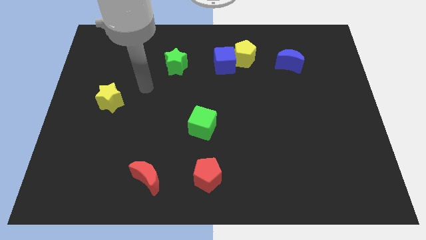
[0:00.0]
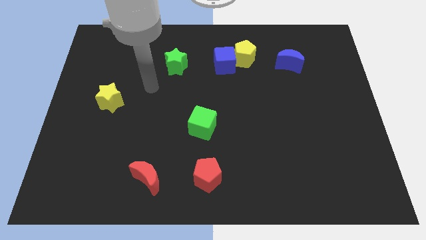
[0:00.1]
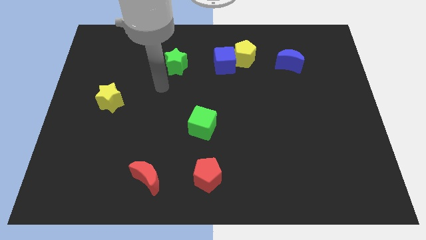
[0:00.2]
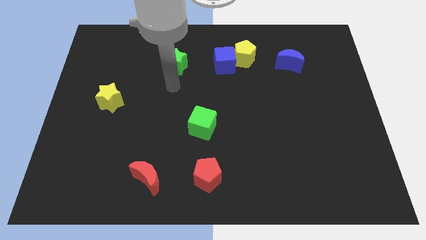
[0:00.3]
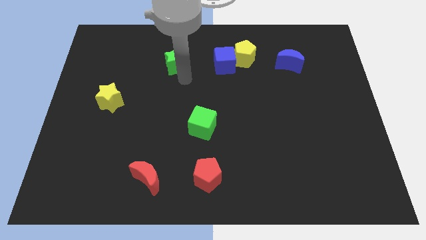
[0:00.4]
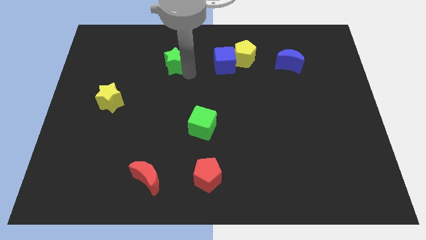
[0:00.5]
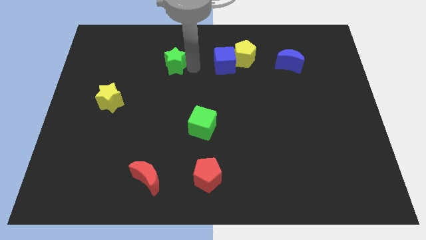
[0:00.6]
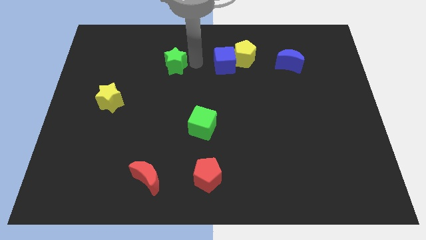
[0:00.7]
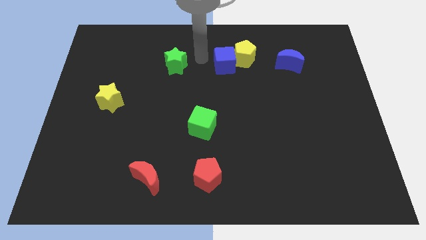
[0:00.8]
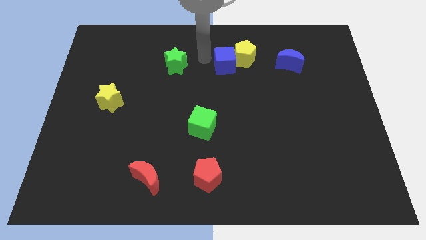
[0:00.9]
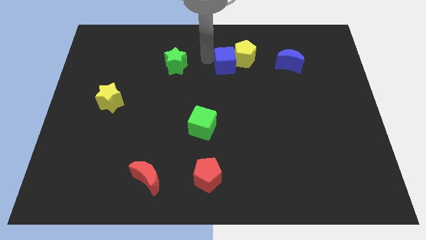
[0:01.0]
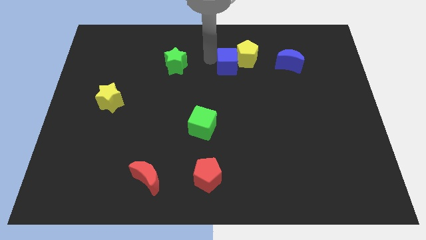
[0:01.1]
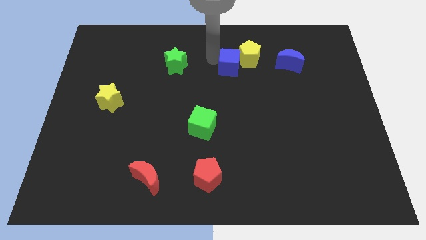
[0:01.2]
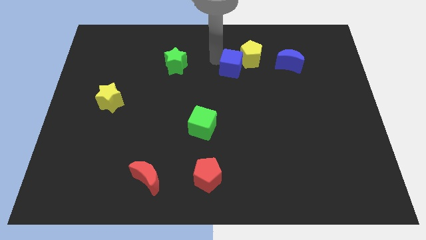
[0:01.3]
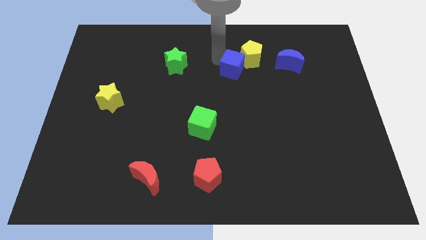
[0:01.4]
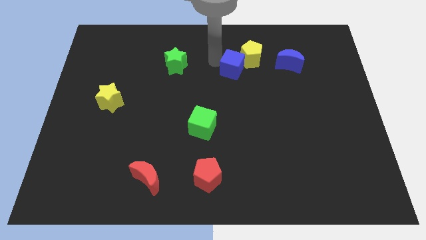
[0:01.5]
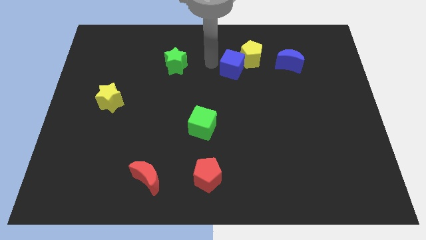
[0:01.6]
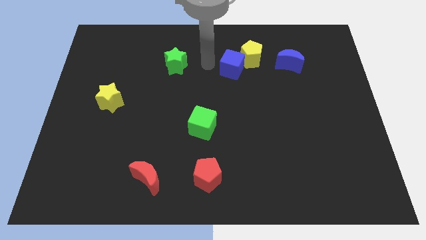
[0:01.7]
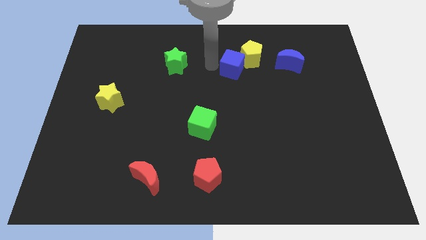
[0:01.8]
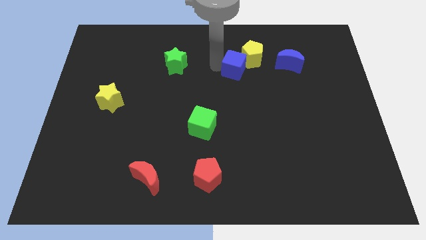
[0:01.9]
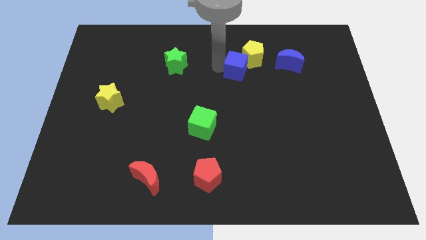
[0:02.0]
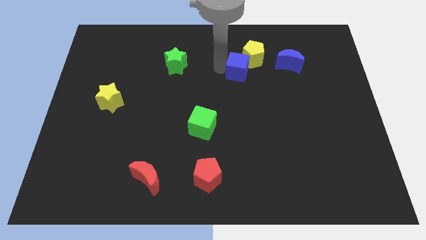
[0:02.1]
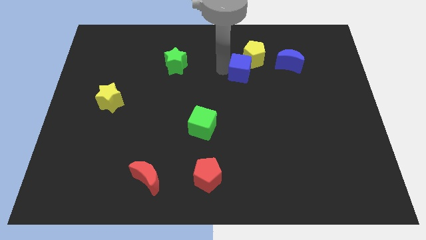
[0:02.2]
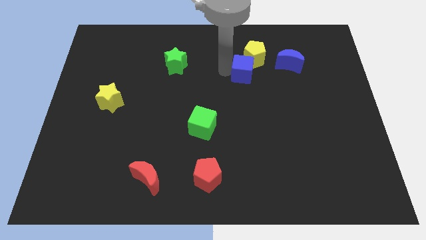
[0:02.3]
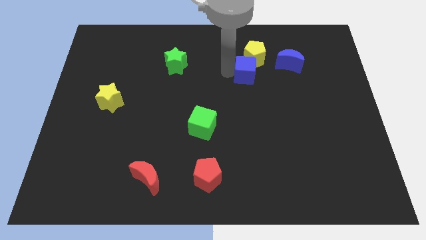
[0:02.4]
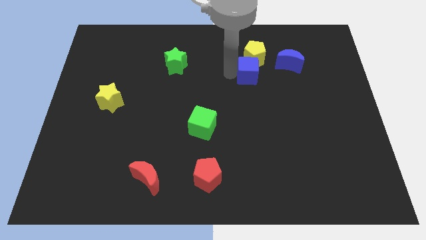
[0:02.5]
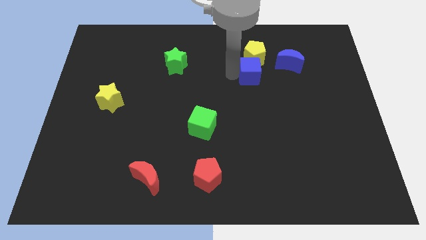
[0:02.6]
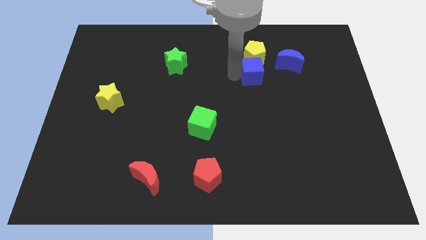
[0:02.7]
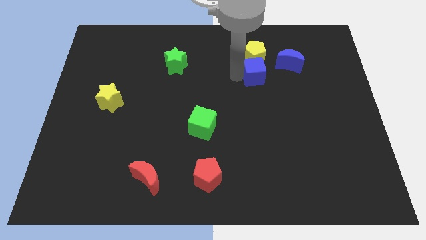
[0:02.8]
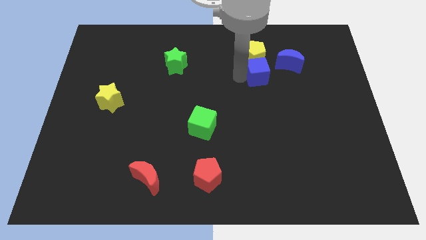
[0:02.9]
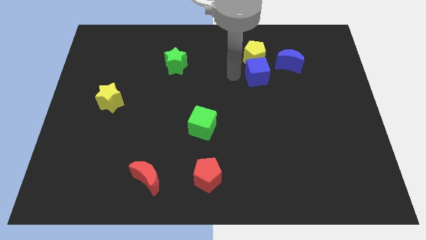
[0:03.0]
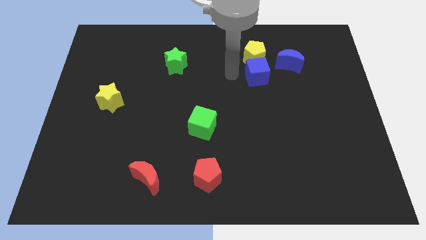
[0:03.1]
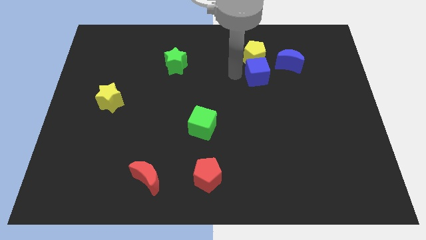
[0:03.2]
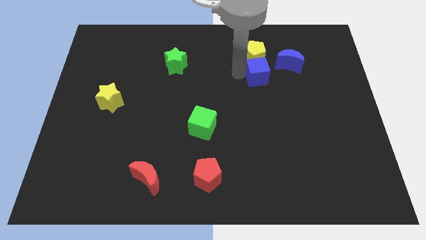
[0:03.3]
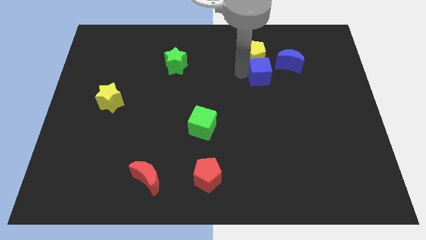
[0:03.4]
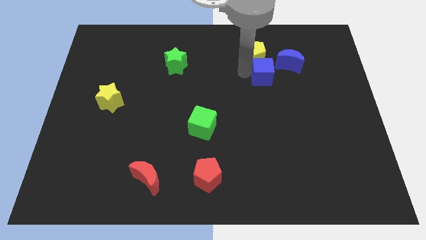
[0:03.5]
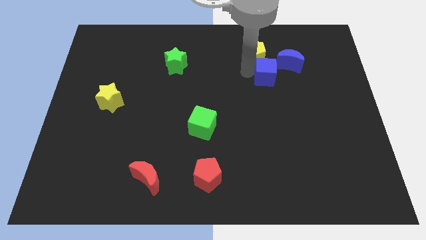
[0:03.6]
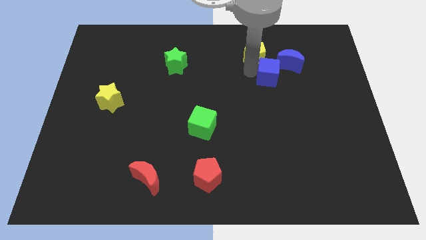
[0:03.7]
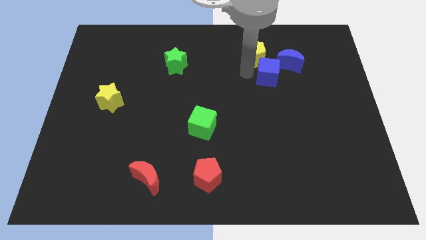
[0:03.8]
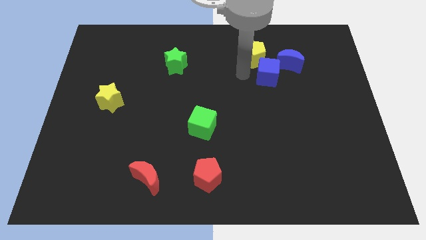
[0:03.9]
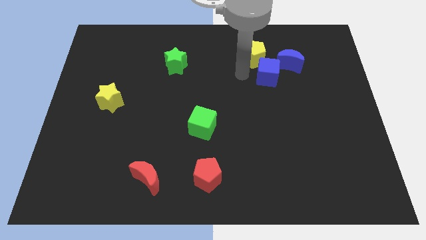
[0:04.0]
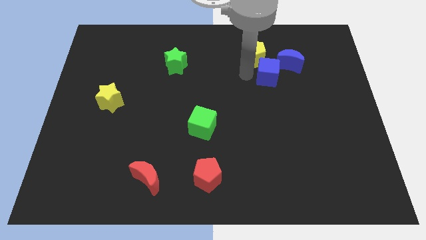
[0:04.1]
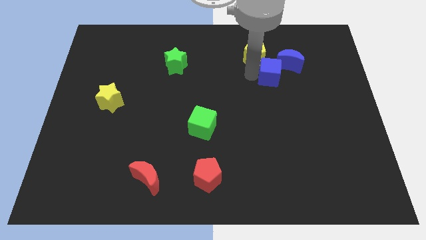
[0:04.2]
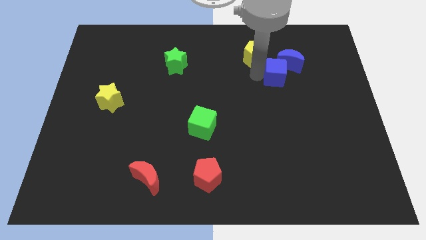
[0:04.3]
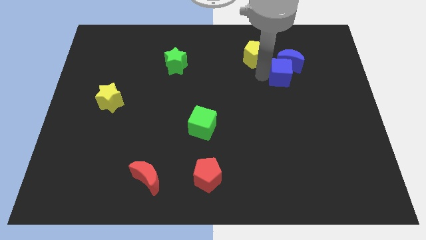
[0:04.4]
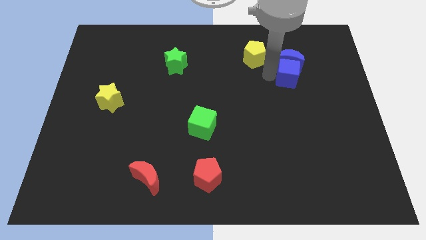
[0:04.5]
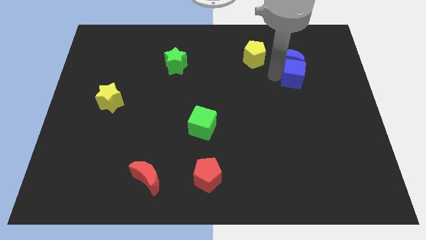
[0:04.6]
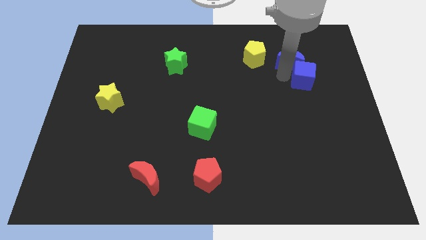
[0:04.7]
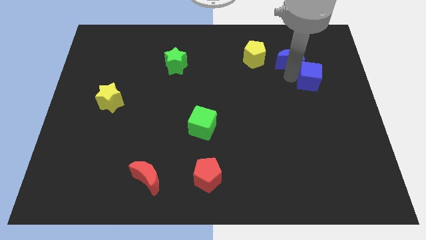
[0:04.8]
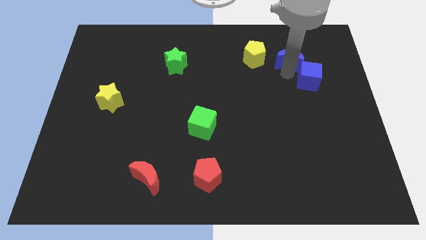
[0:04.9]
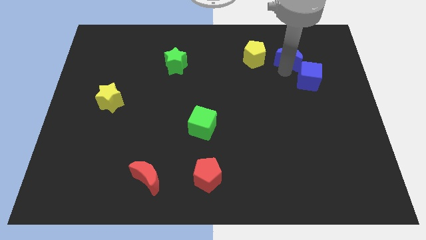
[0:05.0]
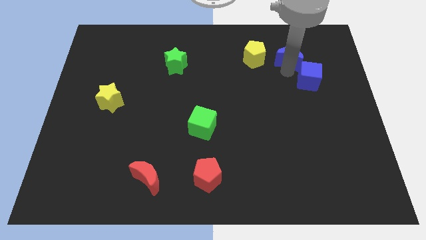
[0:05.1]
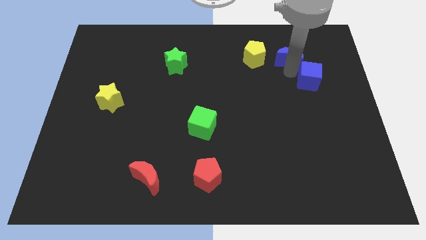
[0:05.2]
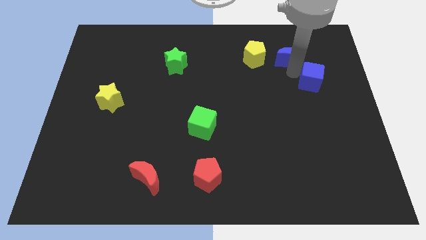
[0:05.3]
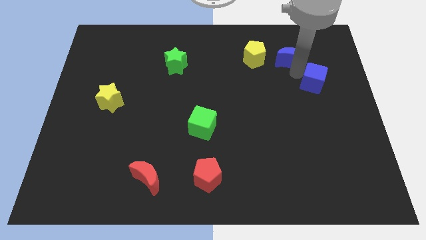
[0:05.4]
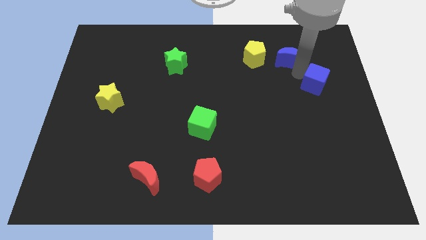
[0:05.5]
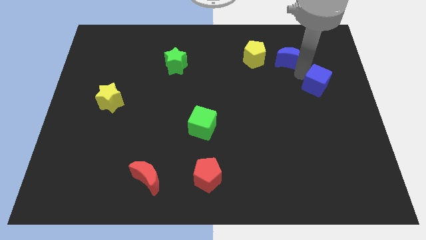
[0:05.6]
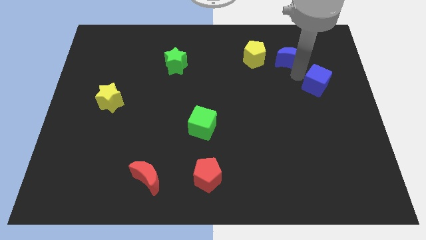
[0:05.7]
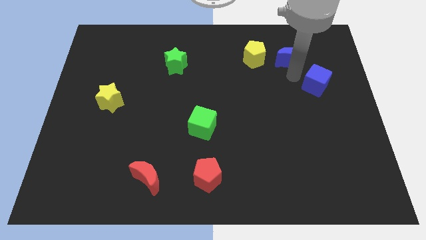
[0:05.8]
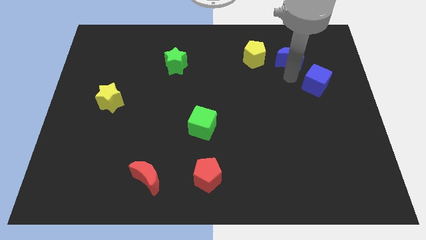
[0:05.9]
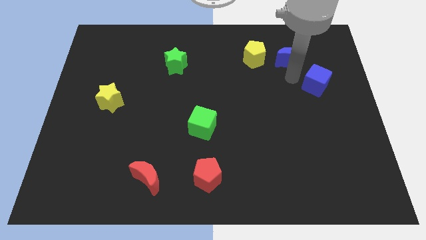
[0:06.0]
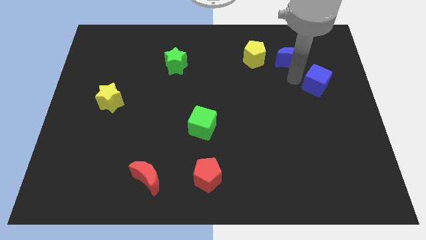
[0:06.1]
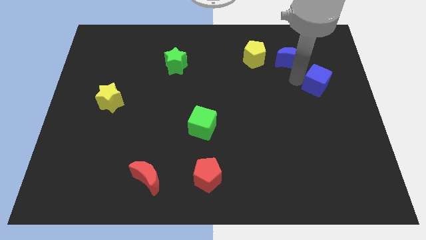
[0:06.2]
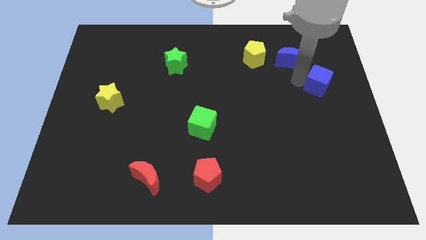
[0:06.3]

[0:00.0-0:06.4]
push the blue cube to the center right
